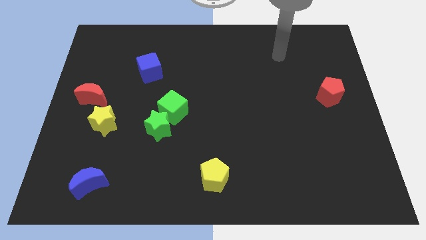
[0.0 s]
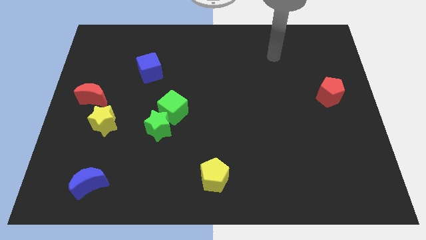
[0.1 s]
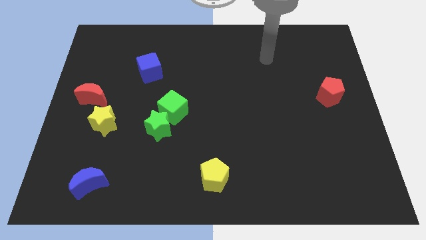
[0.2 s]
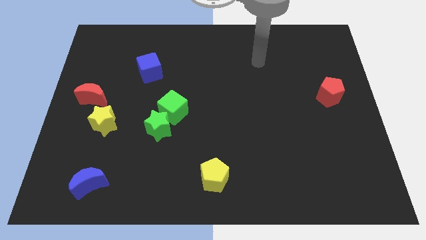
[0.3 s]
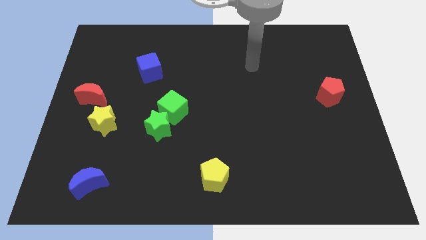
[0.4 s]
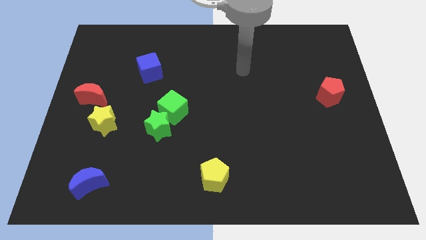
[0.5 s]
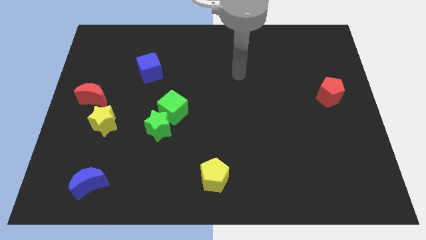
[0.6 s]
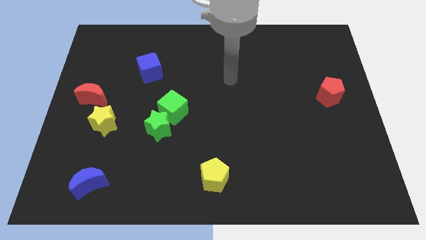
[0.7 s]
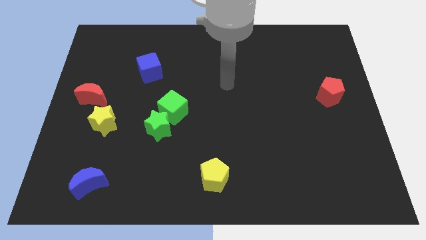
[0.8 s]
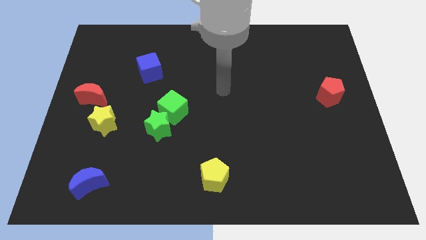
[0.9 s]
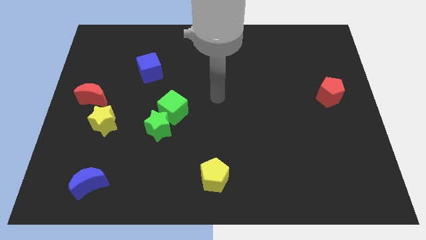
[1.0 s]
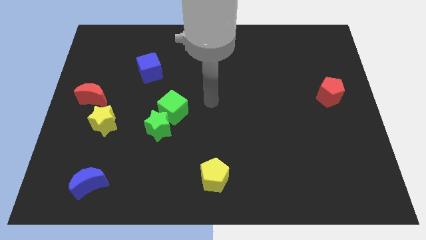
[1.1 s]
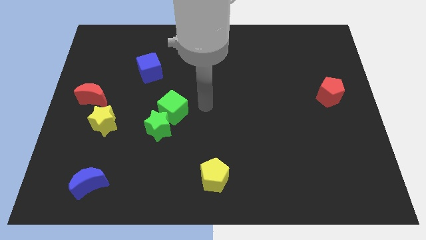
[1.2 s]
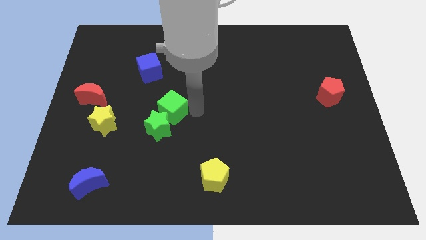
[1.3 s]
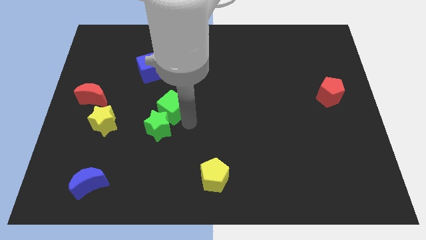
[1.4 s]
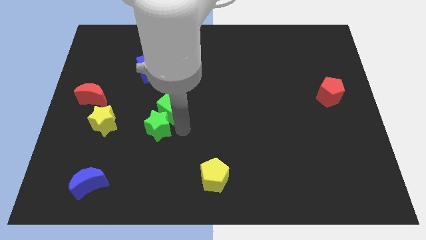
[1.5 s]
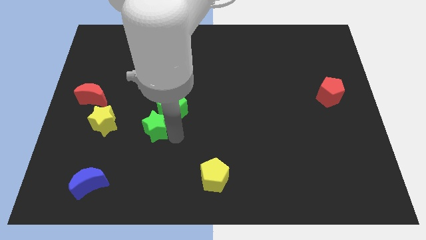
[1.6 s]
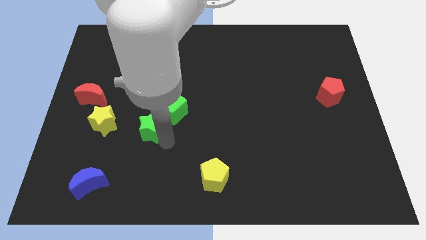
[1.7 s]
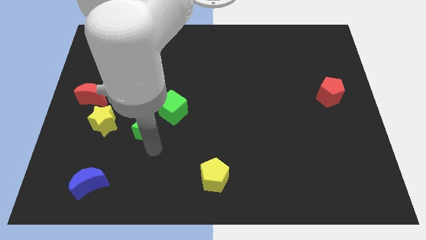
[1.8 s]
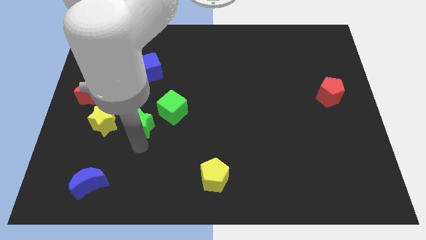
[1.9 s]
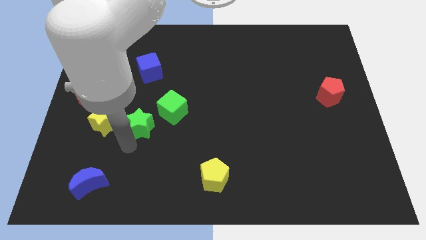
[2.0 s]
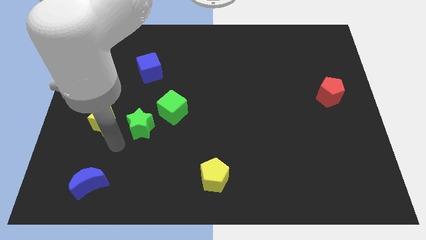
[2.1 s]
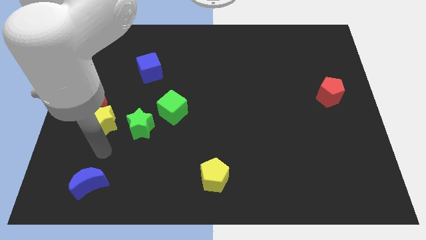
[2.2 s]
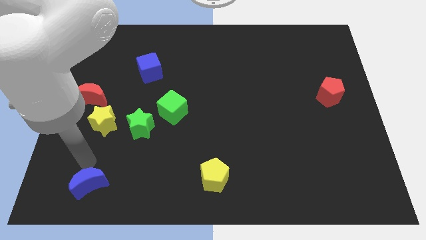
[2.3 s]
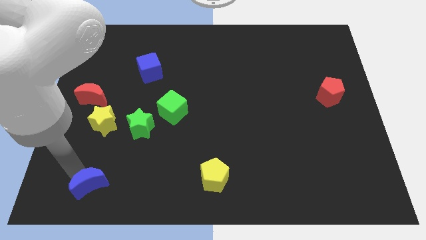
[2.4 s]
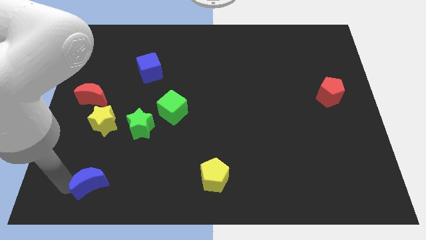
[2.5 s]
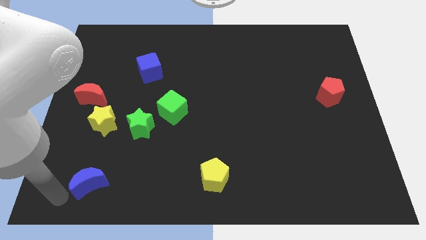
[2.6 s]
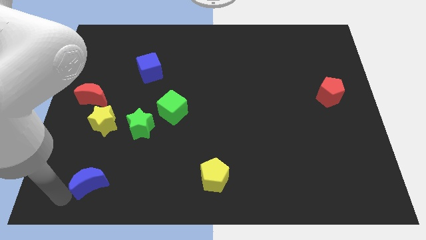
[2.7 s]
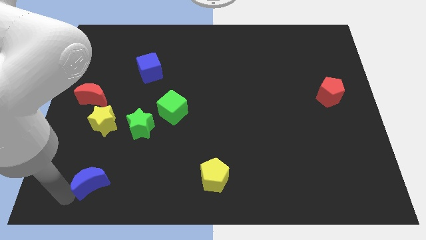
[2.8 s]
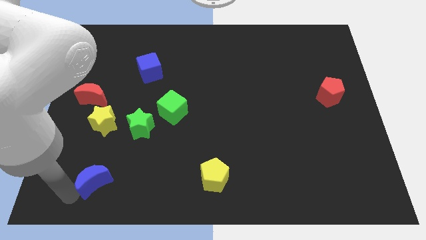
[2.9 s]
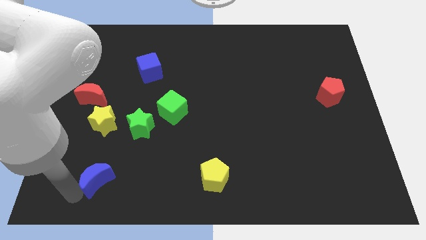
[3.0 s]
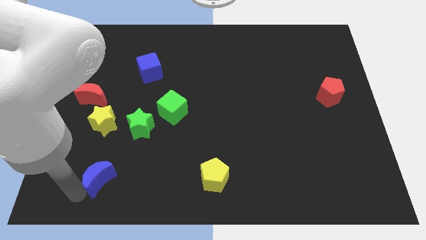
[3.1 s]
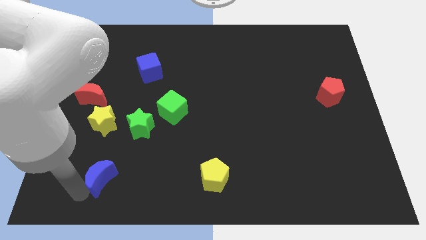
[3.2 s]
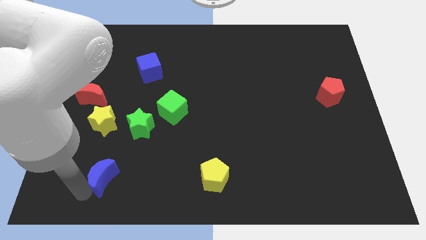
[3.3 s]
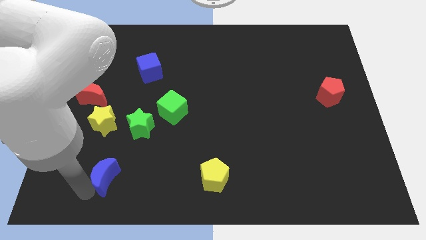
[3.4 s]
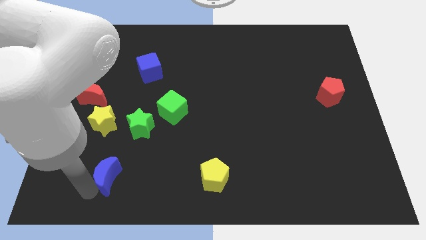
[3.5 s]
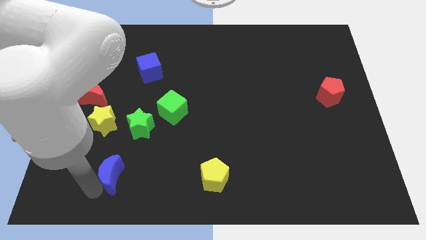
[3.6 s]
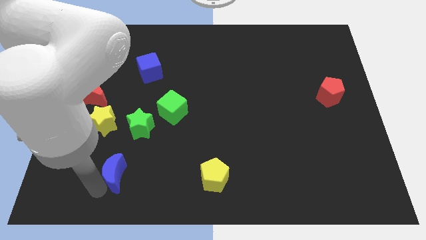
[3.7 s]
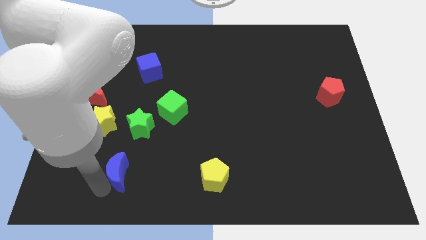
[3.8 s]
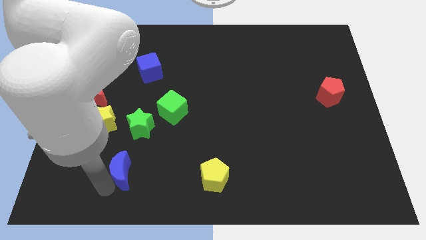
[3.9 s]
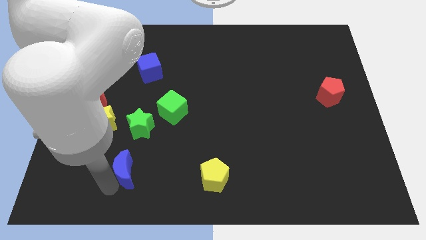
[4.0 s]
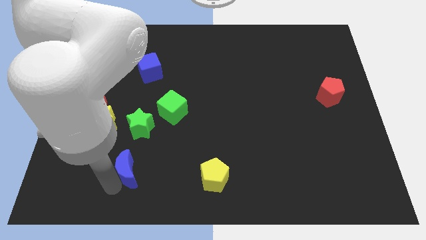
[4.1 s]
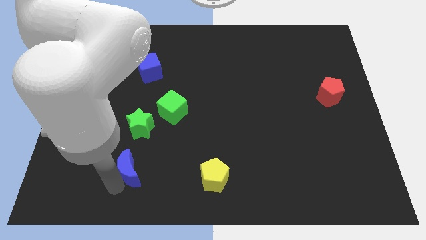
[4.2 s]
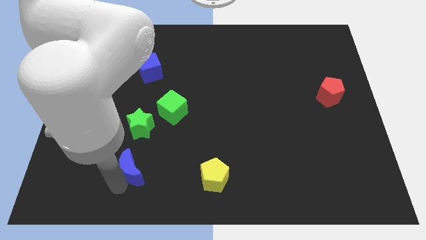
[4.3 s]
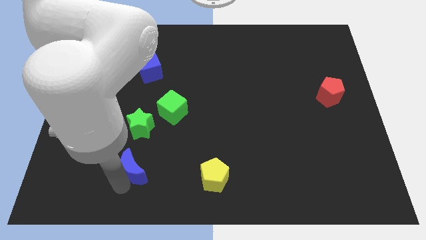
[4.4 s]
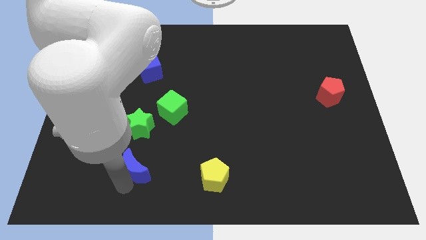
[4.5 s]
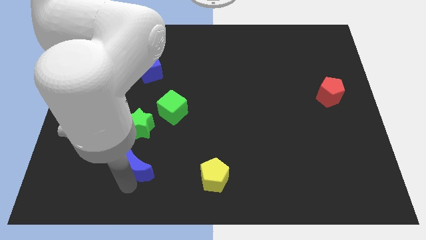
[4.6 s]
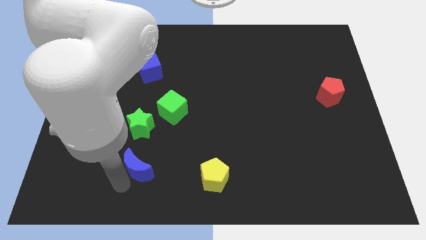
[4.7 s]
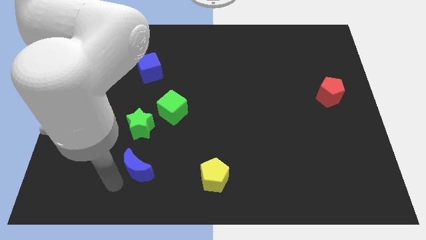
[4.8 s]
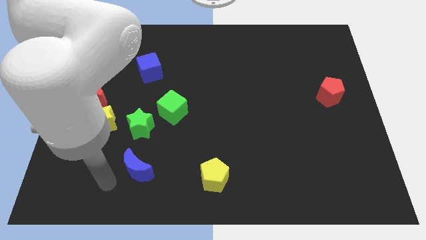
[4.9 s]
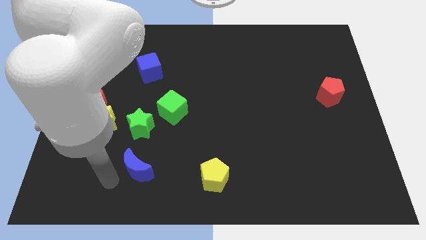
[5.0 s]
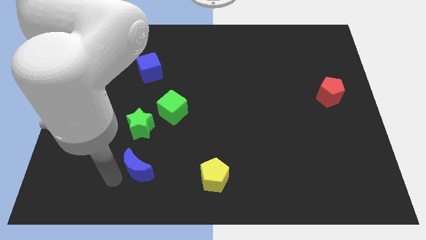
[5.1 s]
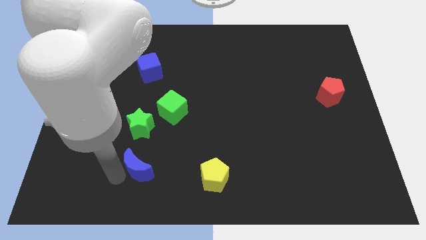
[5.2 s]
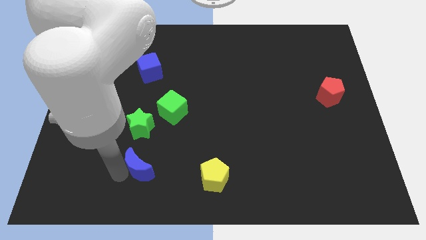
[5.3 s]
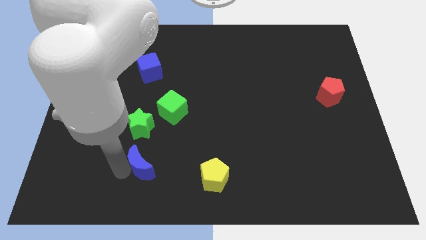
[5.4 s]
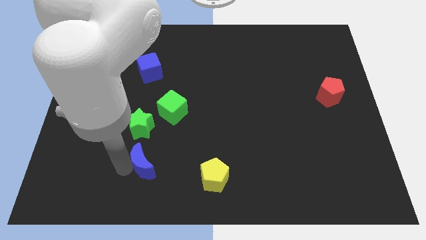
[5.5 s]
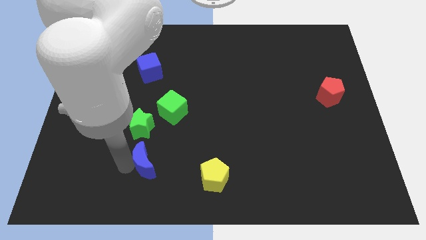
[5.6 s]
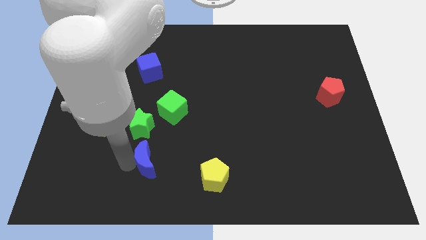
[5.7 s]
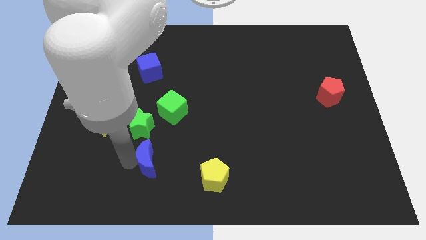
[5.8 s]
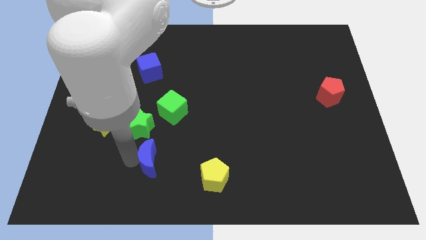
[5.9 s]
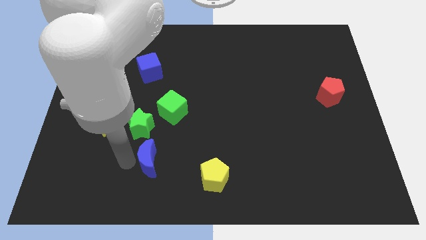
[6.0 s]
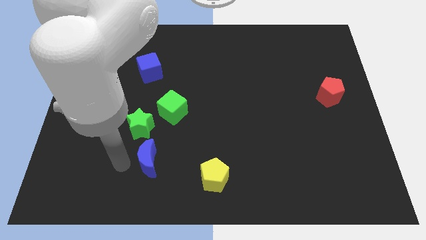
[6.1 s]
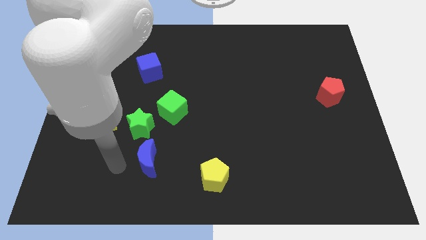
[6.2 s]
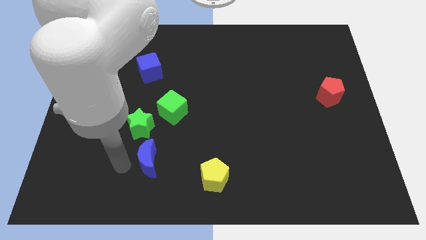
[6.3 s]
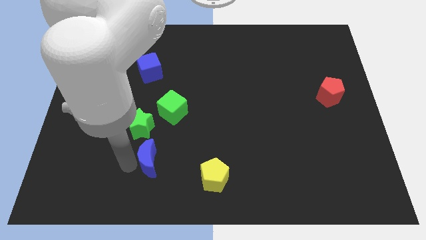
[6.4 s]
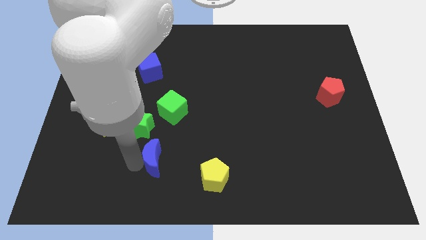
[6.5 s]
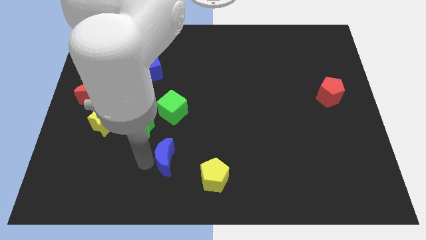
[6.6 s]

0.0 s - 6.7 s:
slide the blue moon to the top left of the yellow pentagon

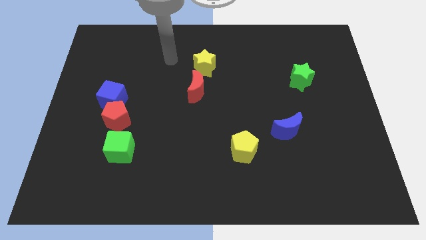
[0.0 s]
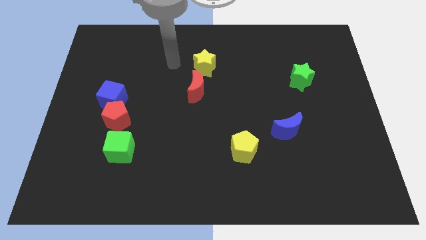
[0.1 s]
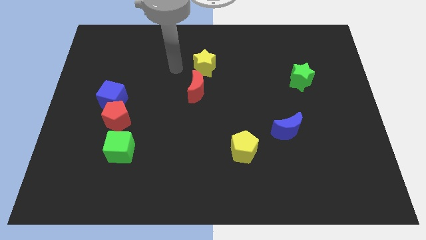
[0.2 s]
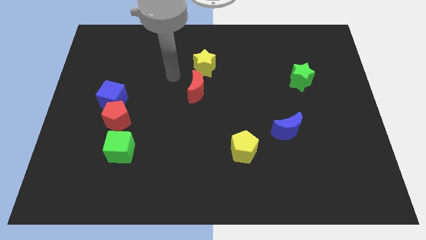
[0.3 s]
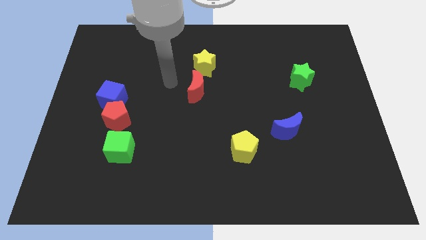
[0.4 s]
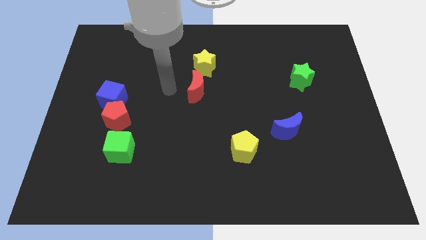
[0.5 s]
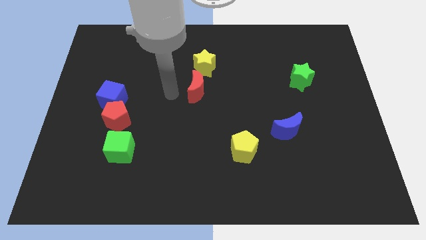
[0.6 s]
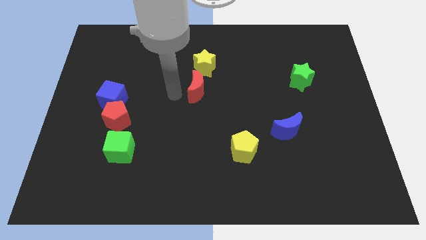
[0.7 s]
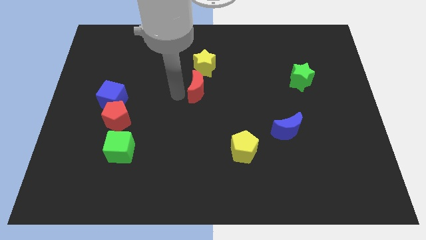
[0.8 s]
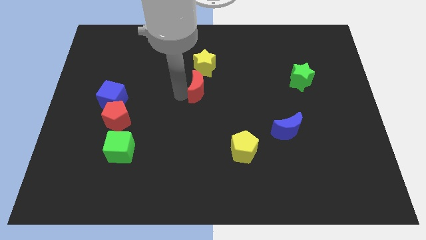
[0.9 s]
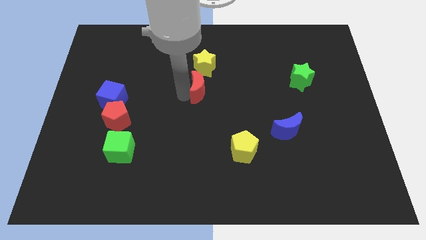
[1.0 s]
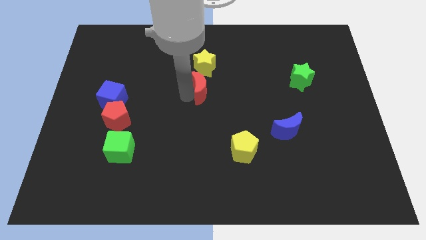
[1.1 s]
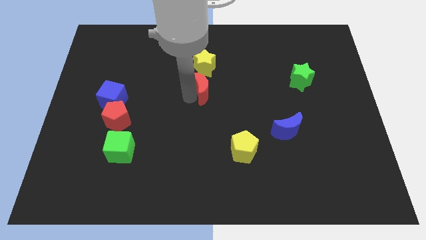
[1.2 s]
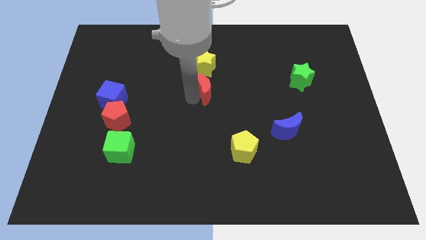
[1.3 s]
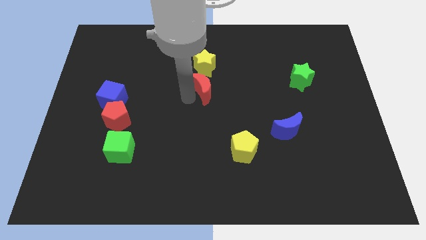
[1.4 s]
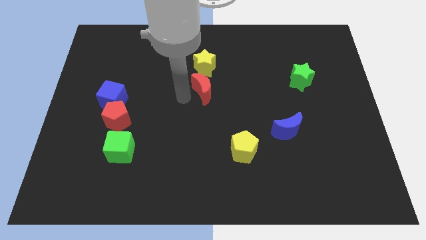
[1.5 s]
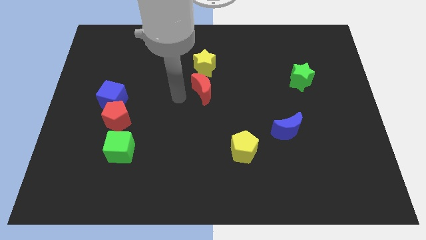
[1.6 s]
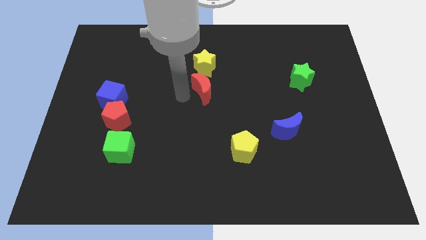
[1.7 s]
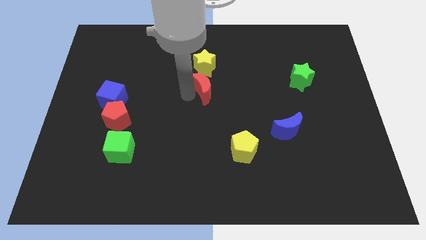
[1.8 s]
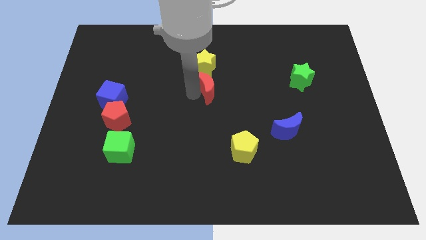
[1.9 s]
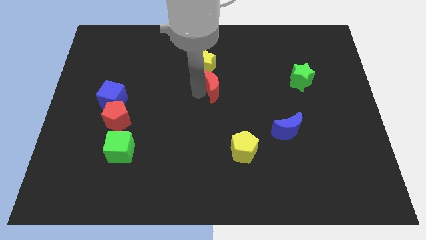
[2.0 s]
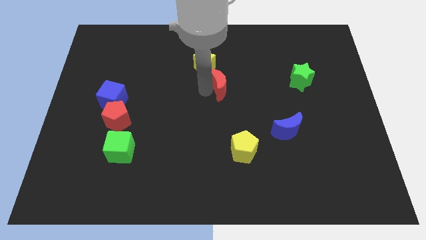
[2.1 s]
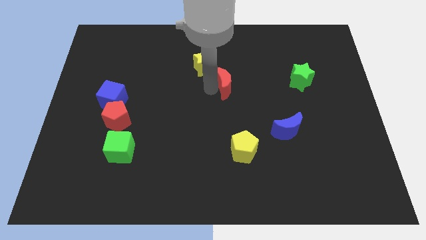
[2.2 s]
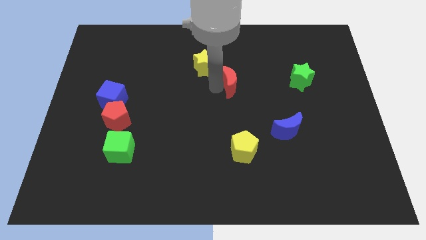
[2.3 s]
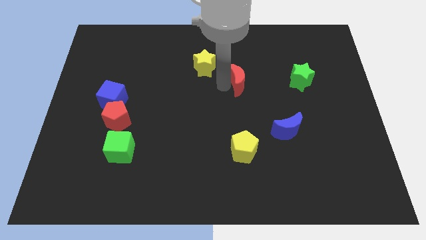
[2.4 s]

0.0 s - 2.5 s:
put the red moon left of the green star
